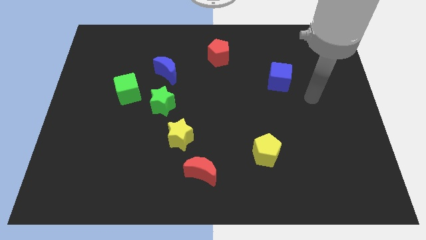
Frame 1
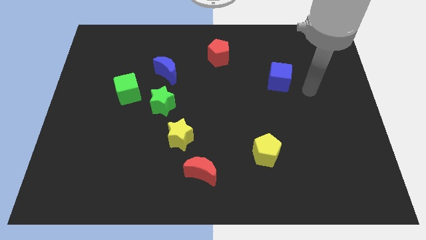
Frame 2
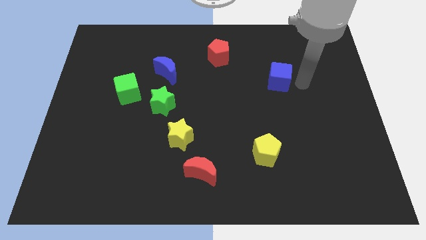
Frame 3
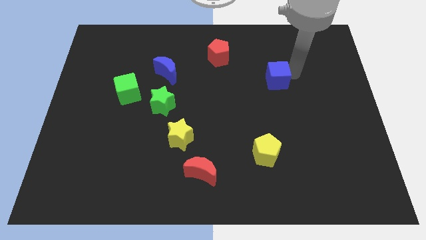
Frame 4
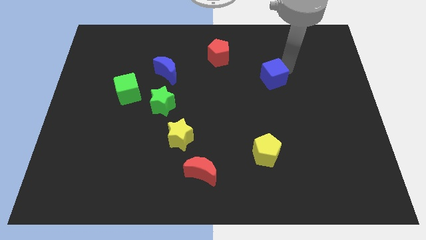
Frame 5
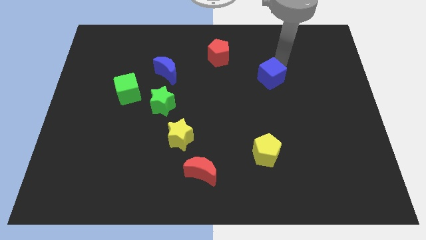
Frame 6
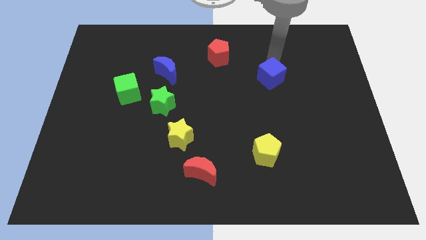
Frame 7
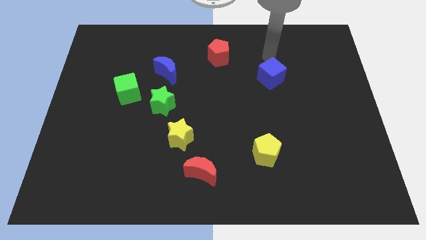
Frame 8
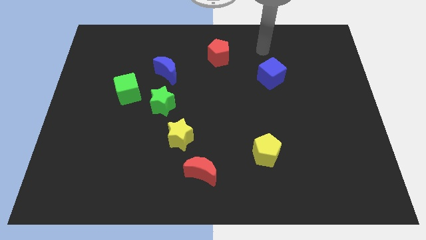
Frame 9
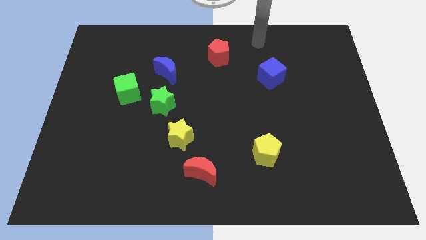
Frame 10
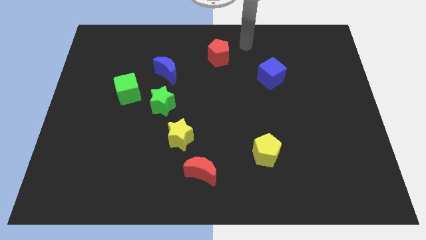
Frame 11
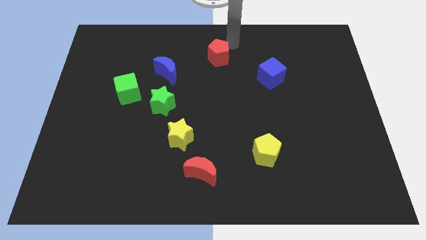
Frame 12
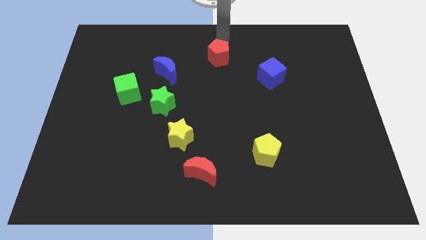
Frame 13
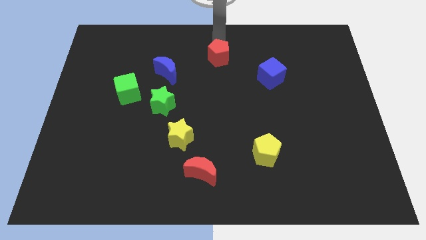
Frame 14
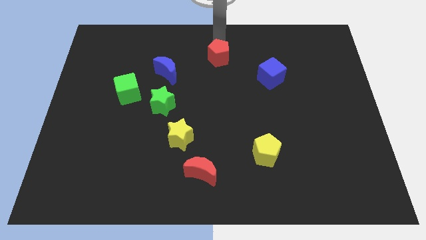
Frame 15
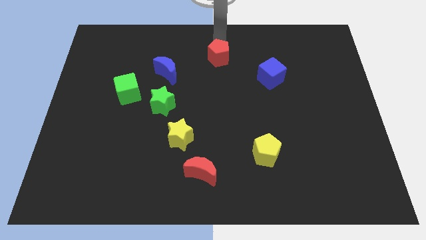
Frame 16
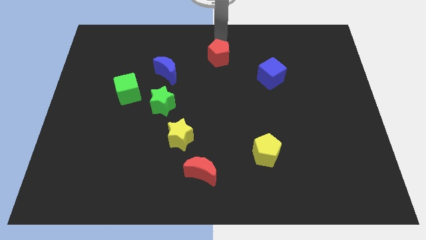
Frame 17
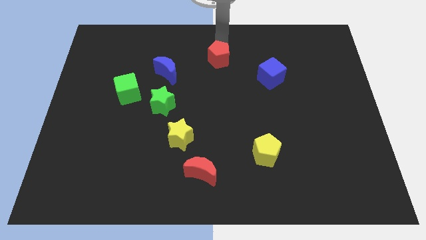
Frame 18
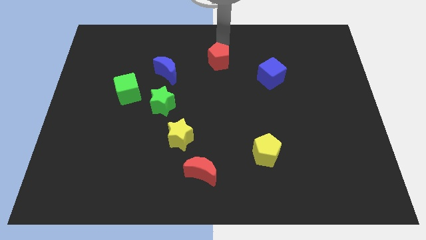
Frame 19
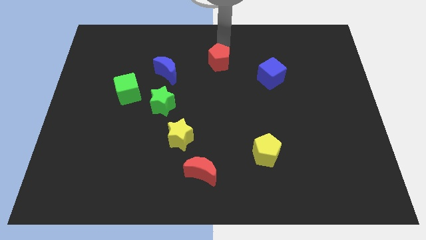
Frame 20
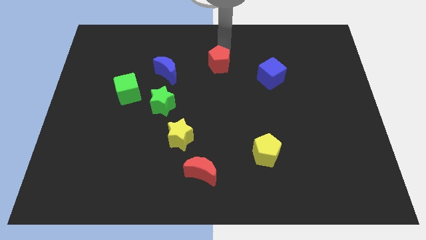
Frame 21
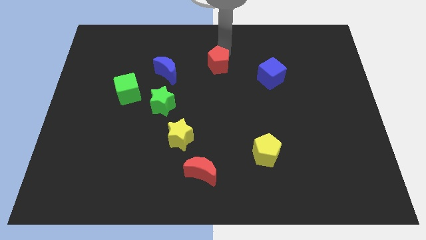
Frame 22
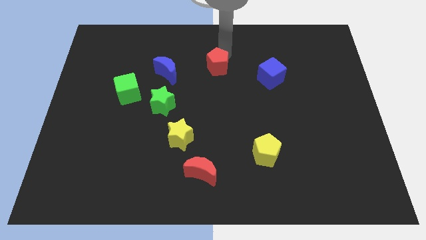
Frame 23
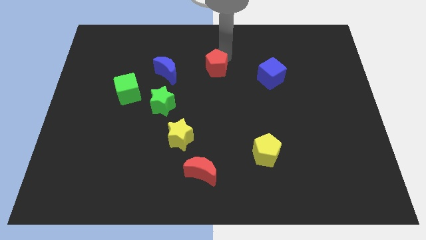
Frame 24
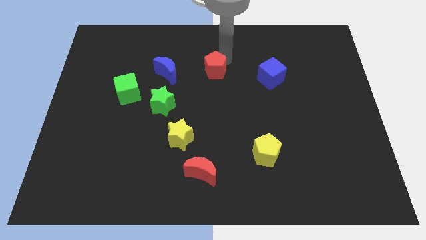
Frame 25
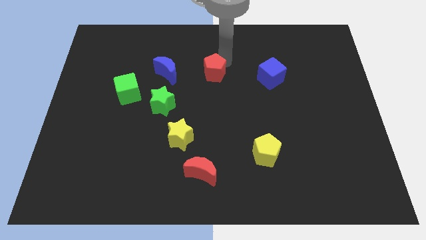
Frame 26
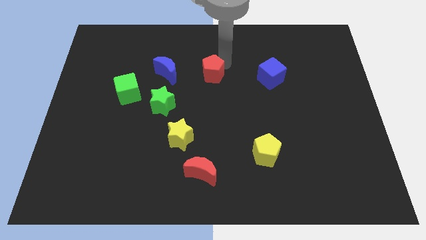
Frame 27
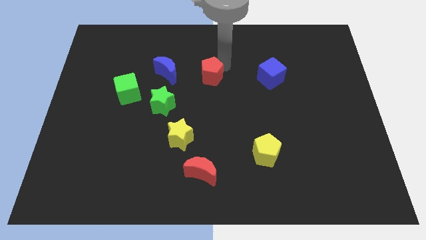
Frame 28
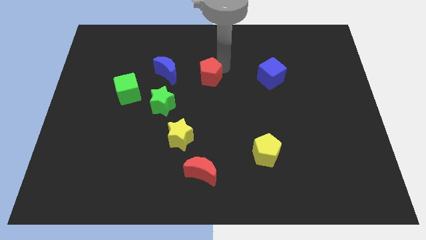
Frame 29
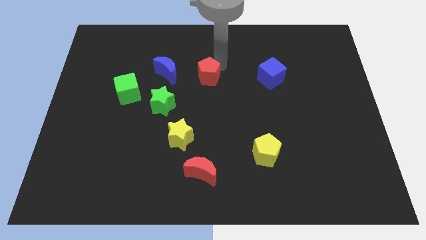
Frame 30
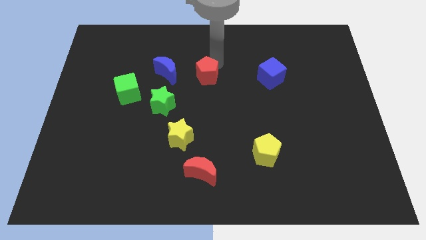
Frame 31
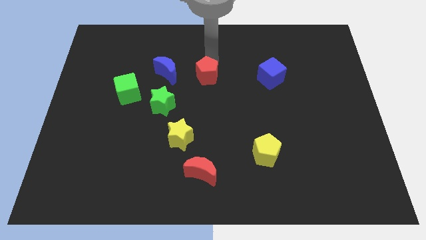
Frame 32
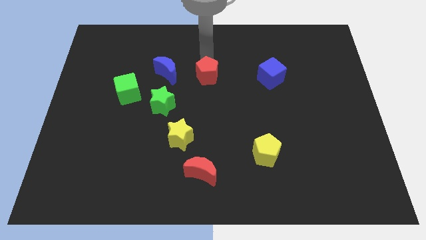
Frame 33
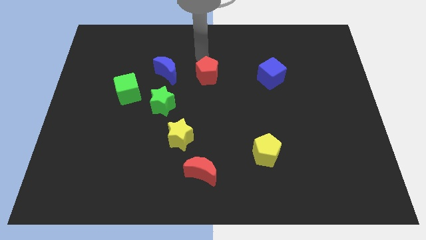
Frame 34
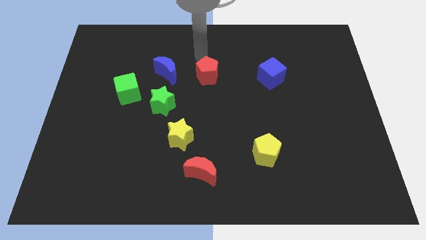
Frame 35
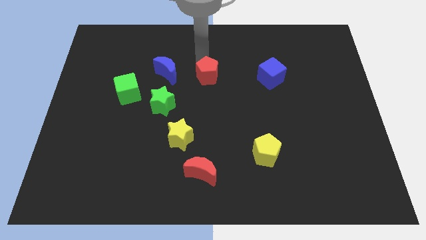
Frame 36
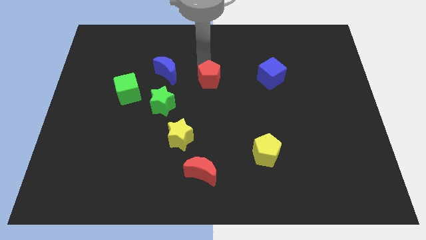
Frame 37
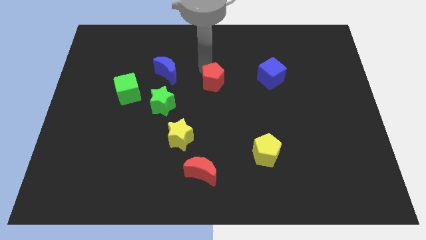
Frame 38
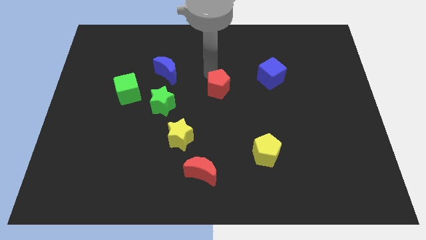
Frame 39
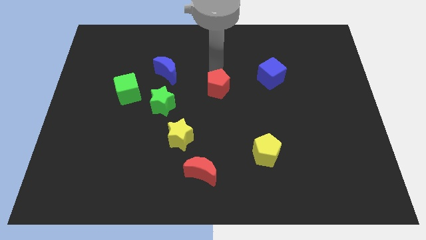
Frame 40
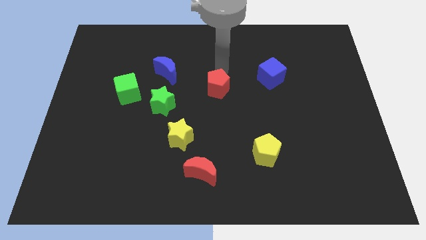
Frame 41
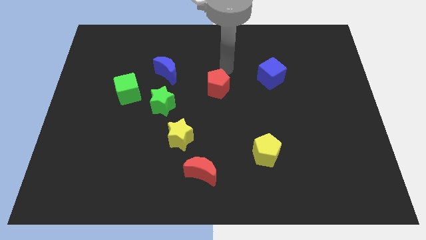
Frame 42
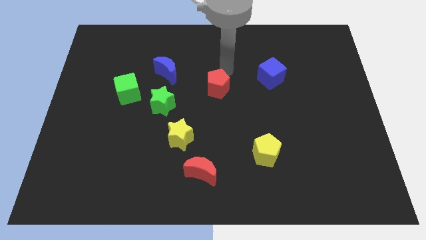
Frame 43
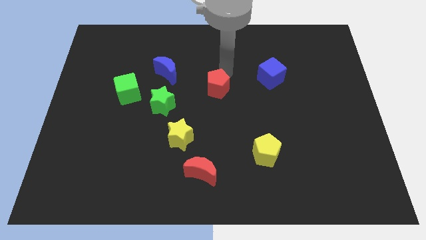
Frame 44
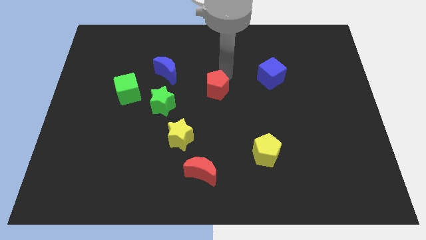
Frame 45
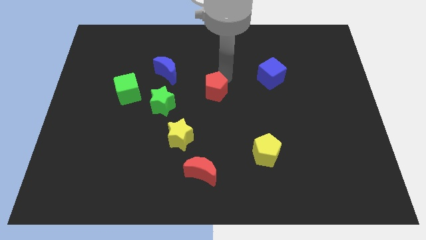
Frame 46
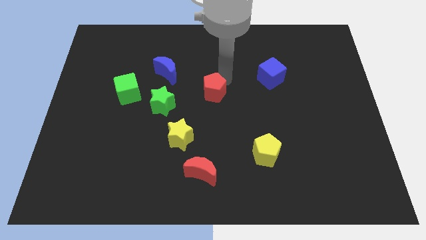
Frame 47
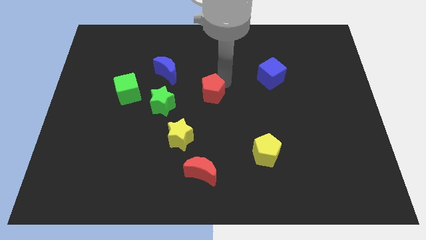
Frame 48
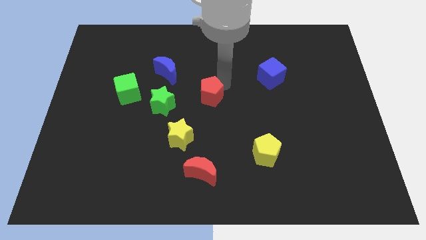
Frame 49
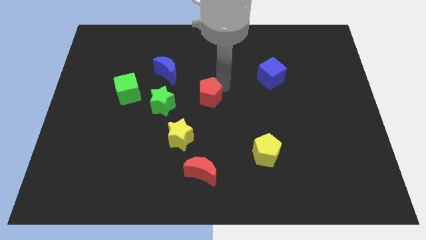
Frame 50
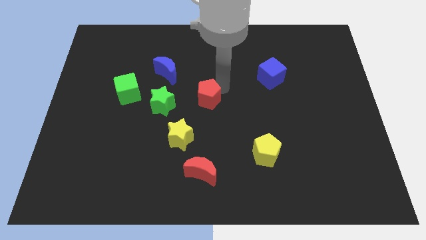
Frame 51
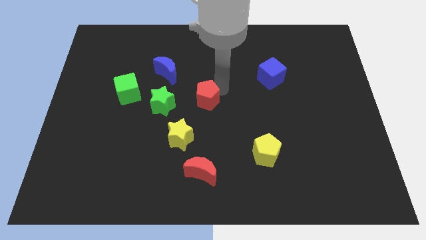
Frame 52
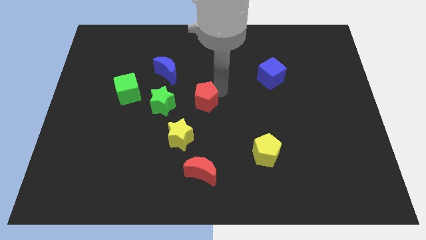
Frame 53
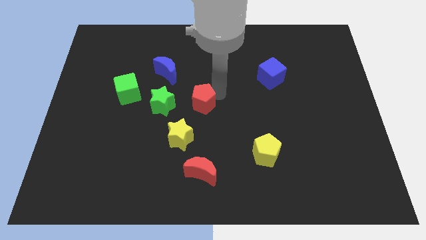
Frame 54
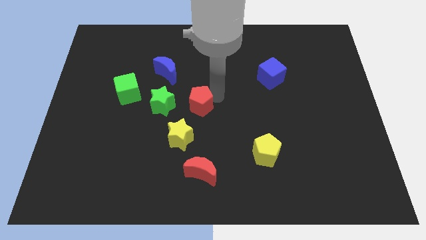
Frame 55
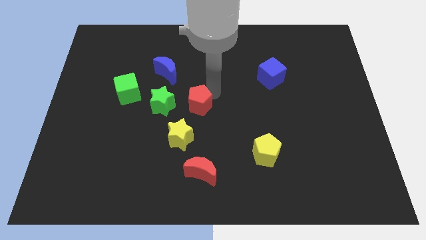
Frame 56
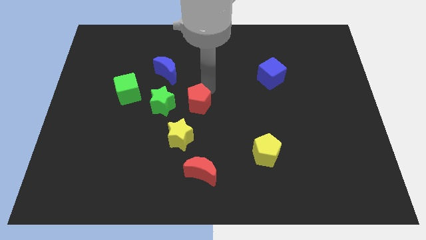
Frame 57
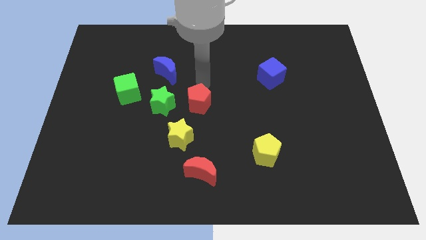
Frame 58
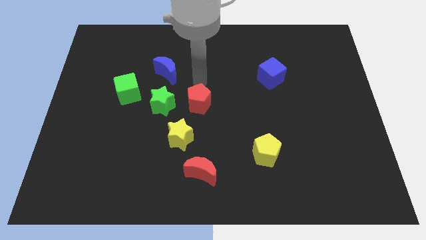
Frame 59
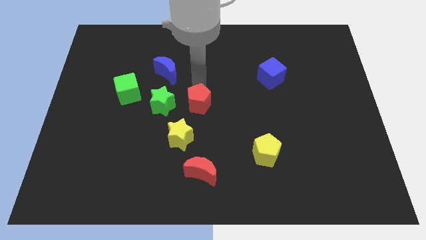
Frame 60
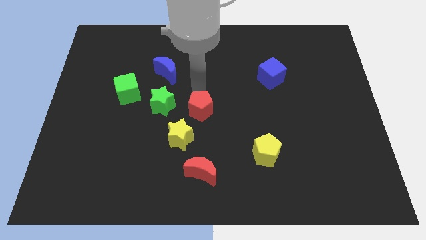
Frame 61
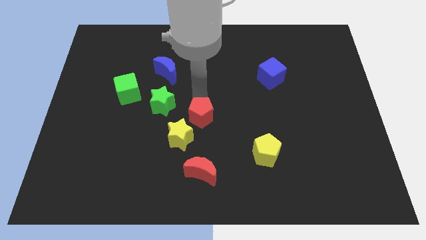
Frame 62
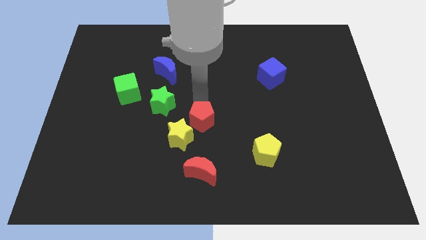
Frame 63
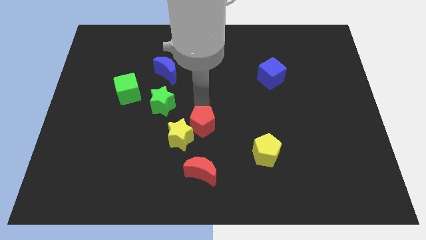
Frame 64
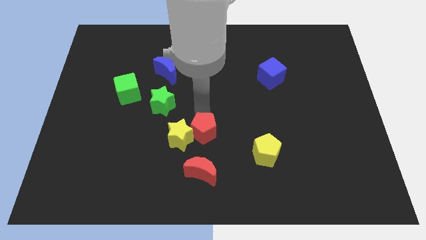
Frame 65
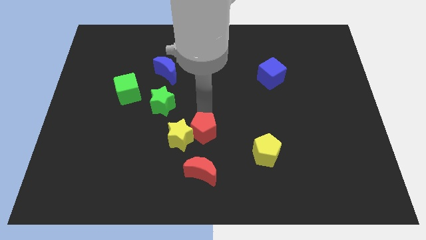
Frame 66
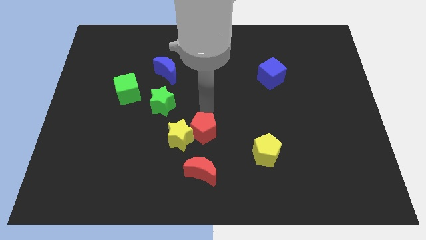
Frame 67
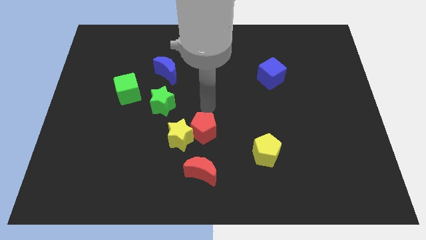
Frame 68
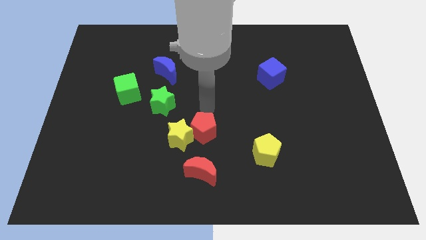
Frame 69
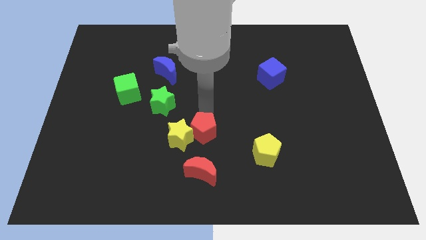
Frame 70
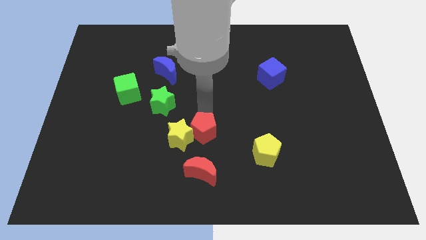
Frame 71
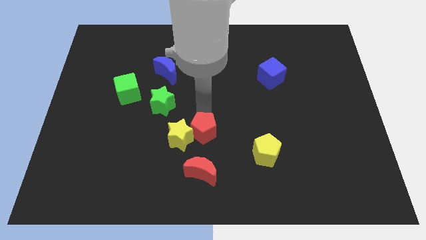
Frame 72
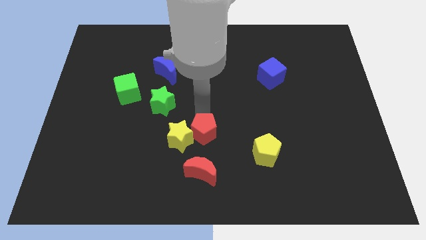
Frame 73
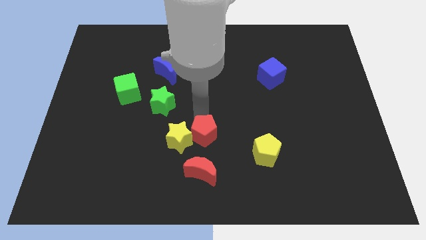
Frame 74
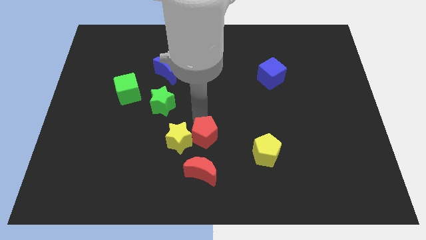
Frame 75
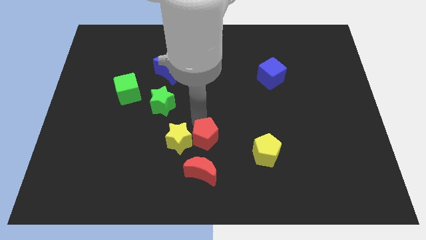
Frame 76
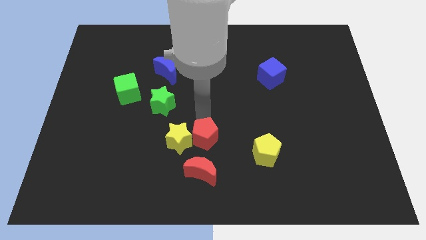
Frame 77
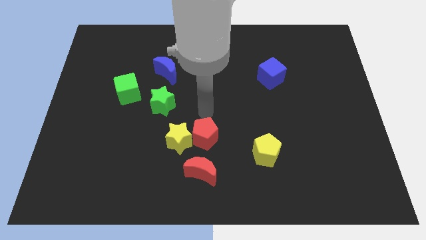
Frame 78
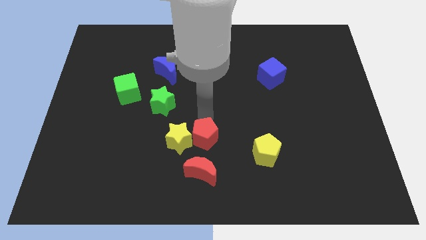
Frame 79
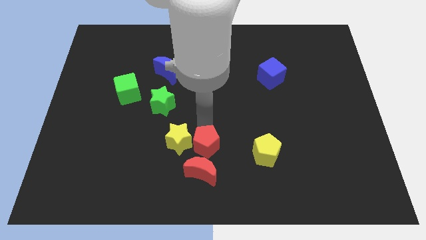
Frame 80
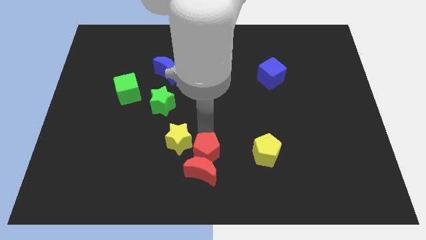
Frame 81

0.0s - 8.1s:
push the red pentagon close to the red moon
